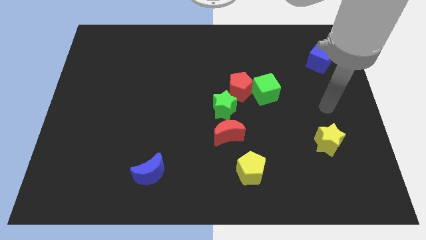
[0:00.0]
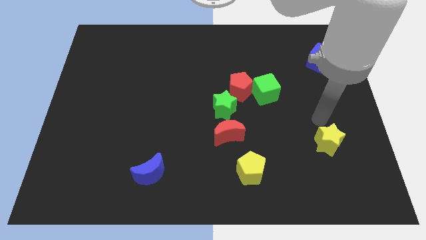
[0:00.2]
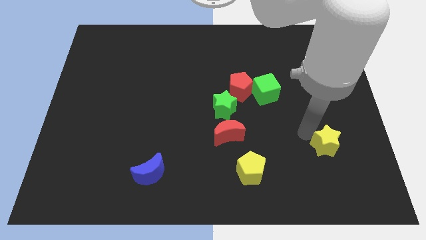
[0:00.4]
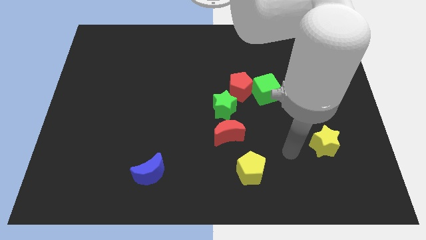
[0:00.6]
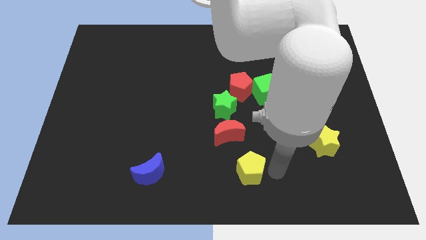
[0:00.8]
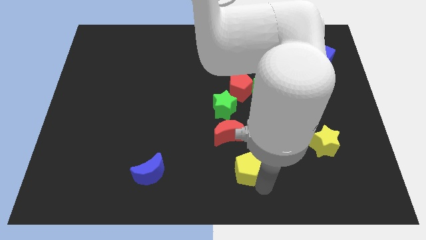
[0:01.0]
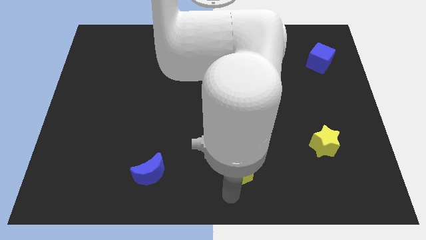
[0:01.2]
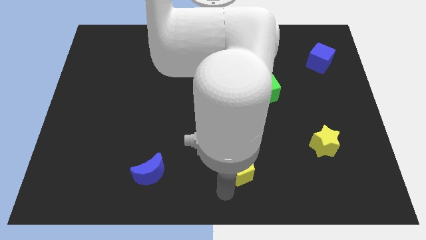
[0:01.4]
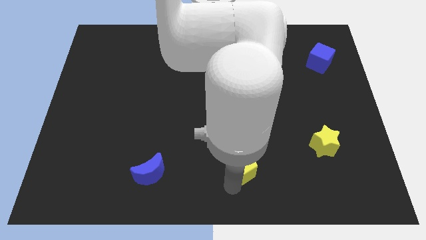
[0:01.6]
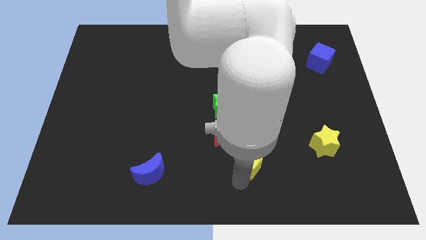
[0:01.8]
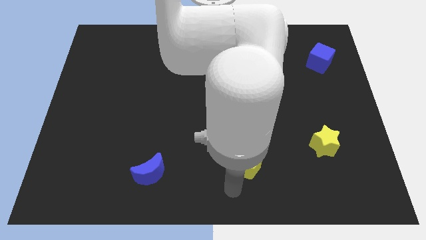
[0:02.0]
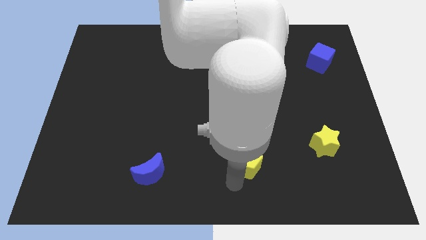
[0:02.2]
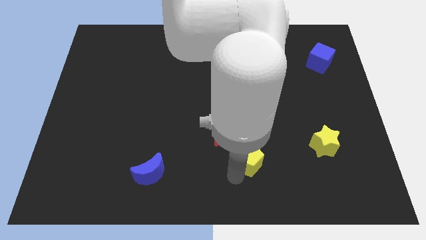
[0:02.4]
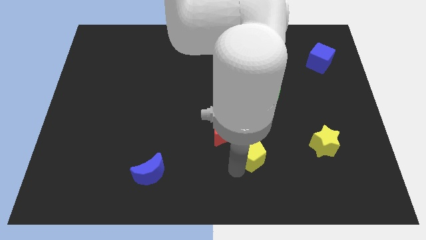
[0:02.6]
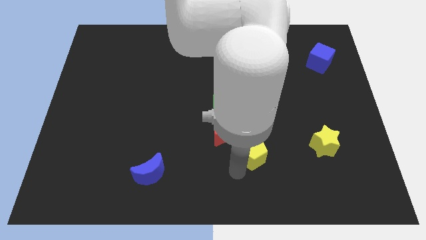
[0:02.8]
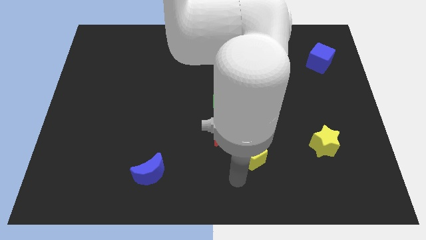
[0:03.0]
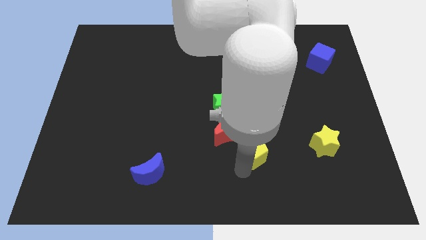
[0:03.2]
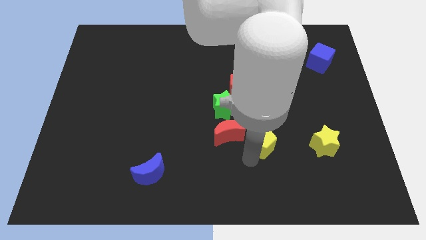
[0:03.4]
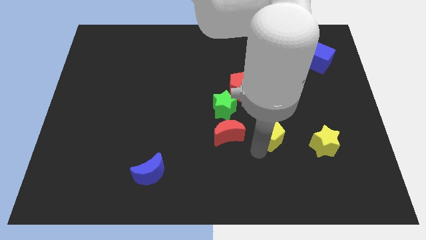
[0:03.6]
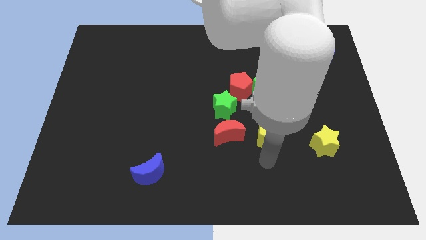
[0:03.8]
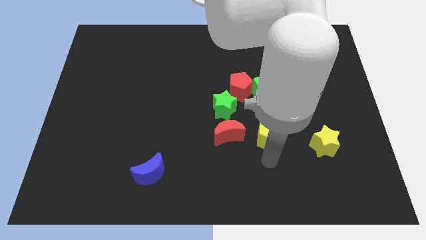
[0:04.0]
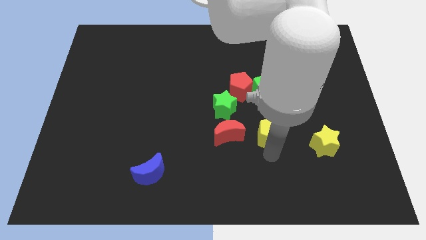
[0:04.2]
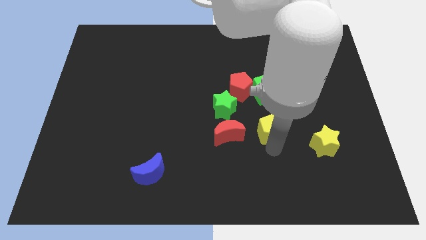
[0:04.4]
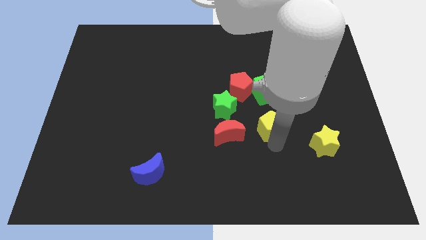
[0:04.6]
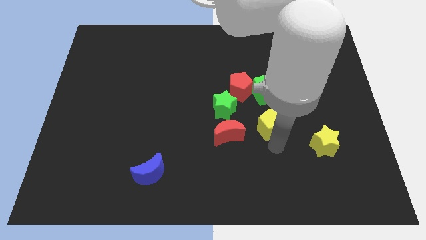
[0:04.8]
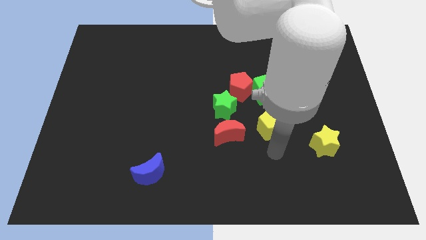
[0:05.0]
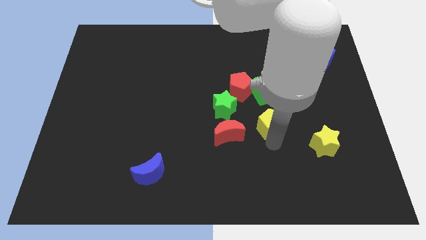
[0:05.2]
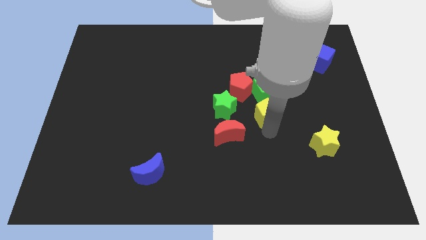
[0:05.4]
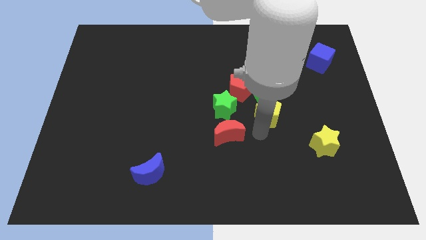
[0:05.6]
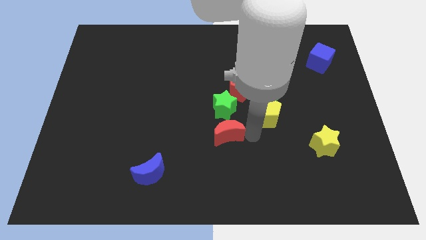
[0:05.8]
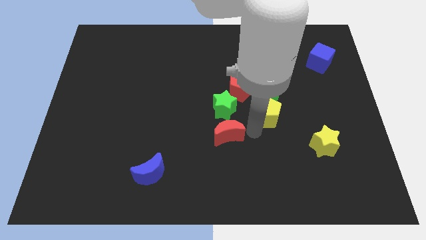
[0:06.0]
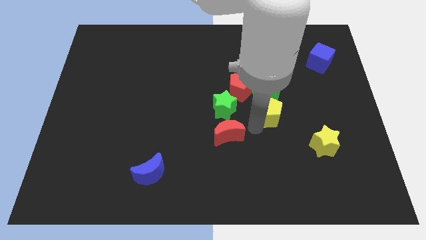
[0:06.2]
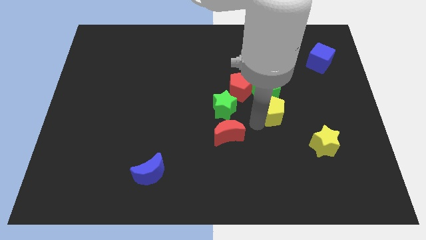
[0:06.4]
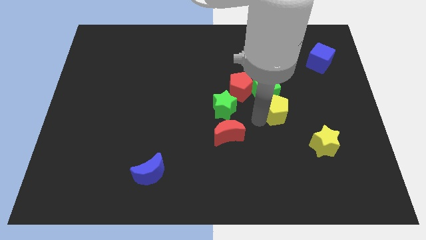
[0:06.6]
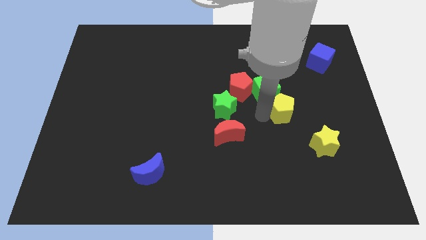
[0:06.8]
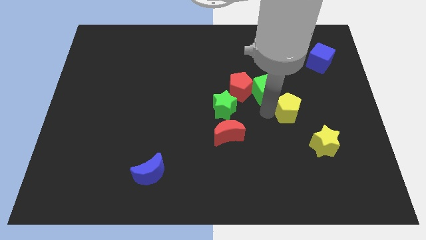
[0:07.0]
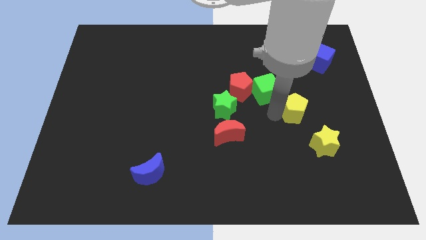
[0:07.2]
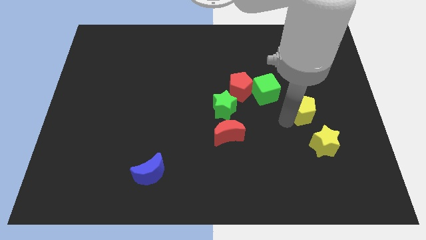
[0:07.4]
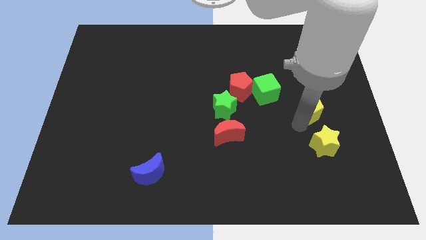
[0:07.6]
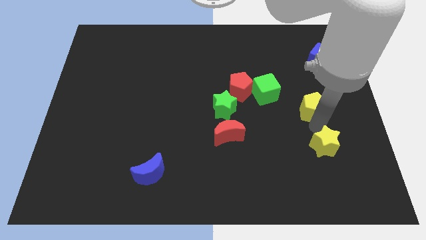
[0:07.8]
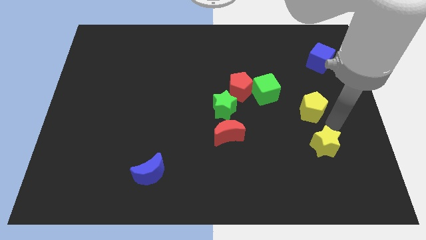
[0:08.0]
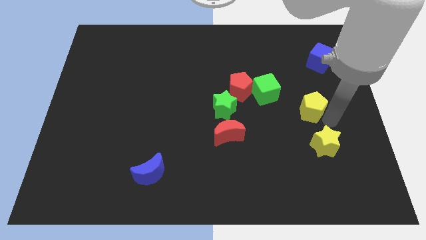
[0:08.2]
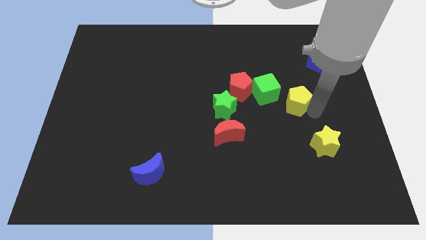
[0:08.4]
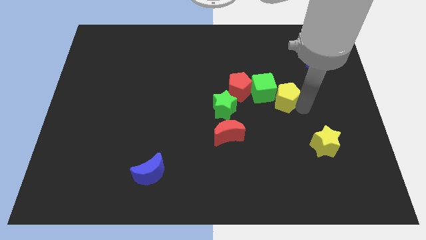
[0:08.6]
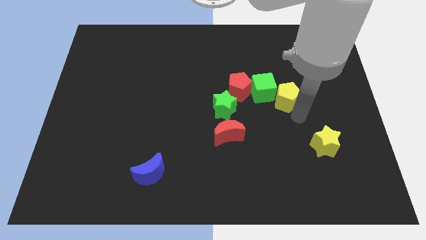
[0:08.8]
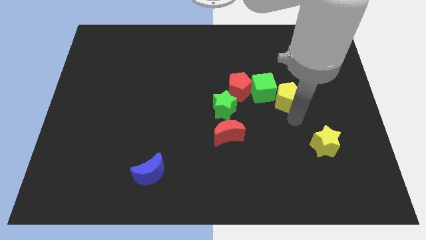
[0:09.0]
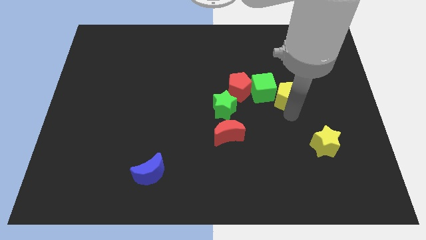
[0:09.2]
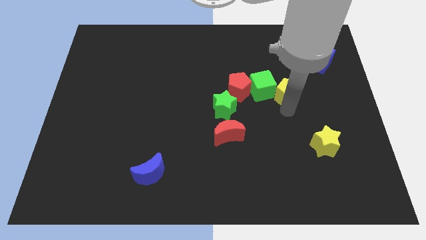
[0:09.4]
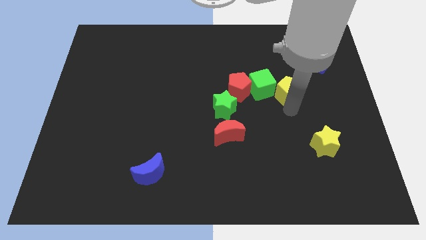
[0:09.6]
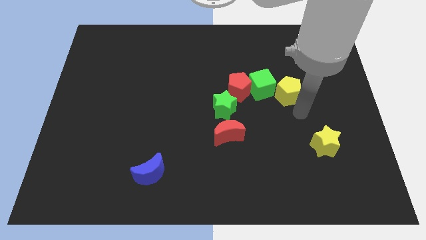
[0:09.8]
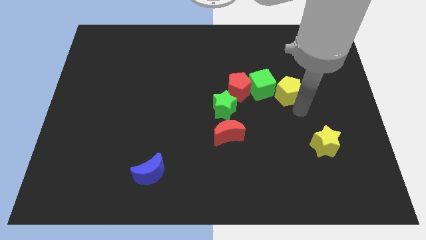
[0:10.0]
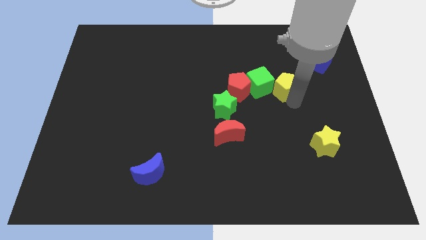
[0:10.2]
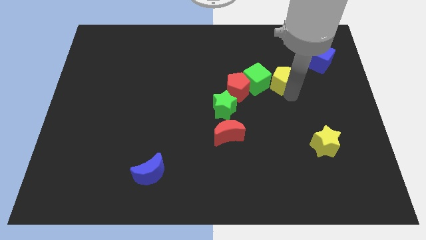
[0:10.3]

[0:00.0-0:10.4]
move the yellow pentagon up

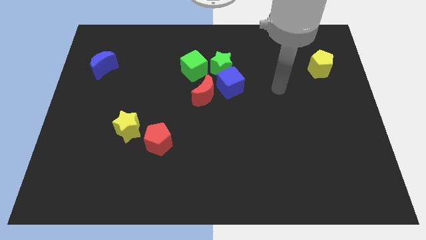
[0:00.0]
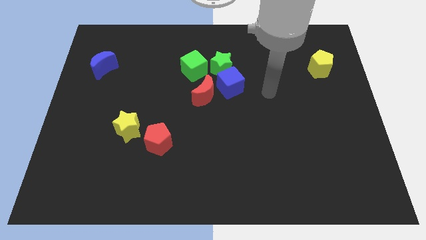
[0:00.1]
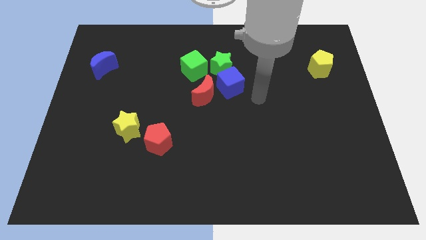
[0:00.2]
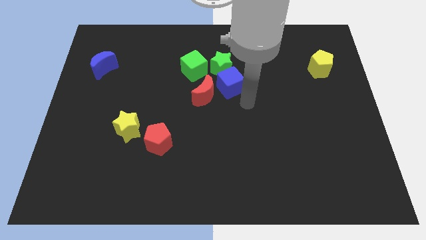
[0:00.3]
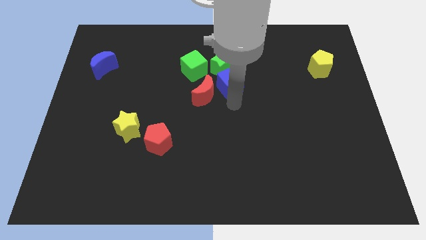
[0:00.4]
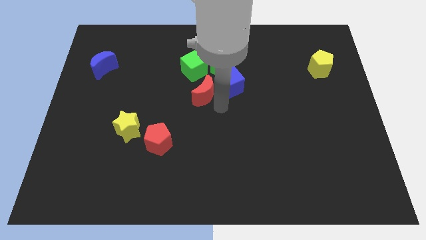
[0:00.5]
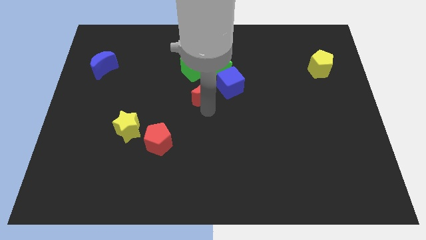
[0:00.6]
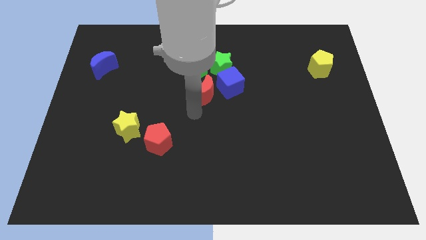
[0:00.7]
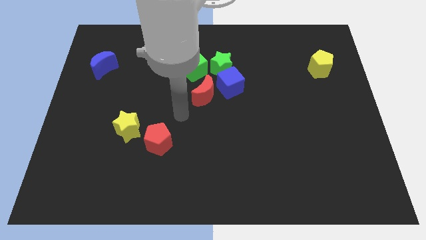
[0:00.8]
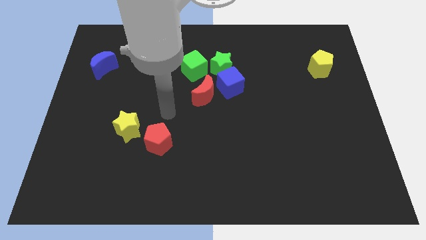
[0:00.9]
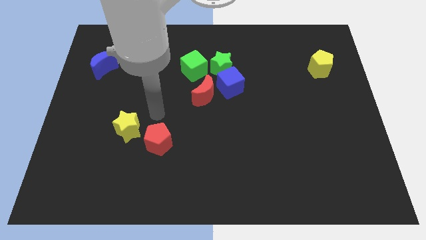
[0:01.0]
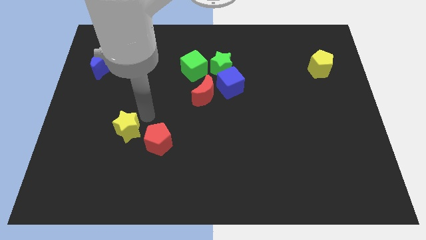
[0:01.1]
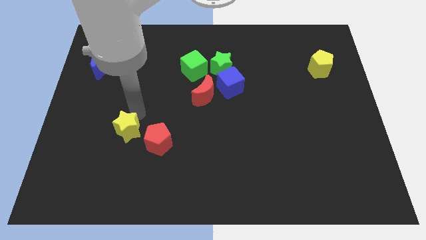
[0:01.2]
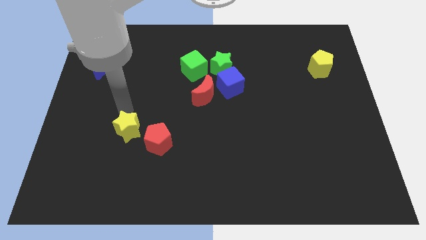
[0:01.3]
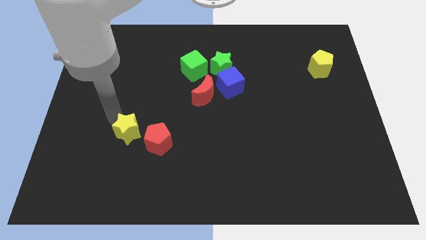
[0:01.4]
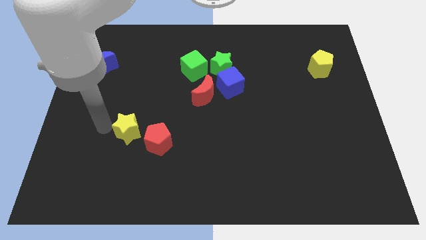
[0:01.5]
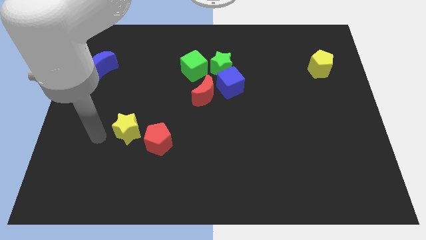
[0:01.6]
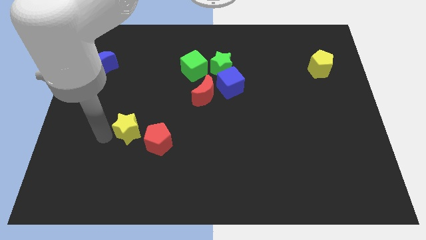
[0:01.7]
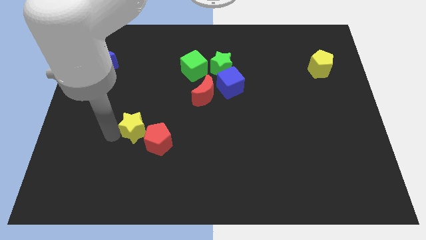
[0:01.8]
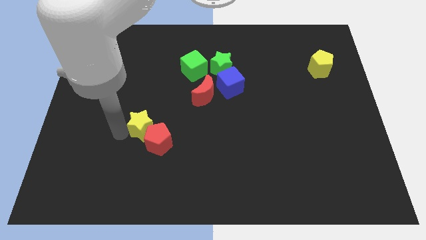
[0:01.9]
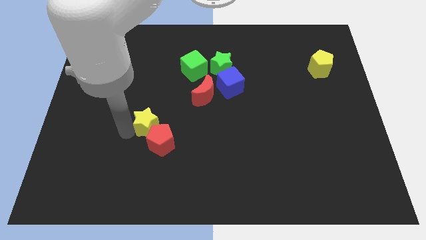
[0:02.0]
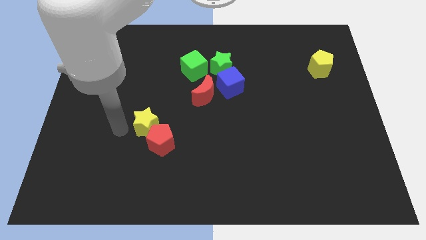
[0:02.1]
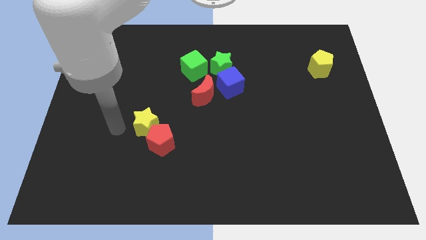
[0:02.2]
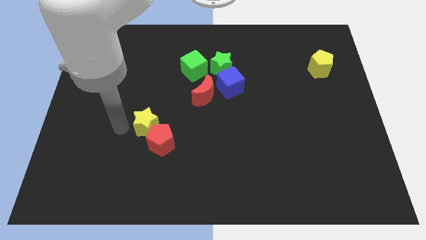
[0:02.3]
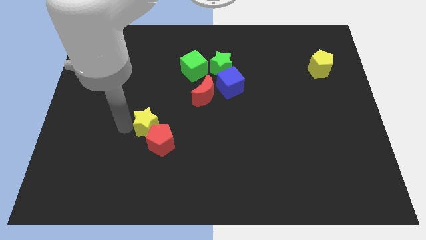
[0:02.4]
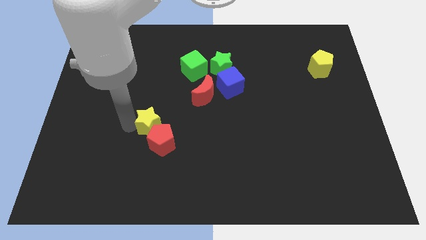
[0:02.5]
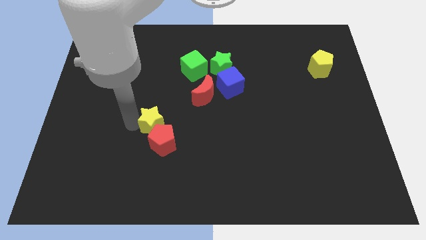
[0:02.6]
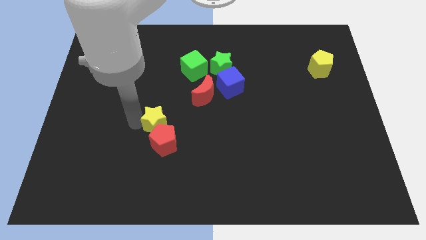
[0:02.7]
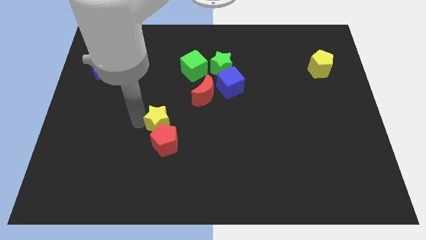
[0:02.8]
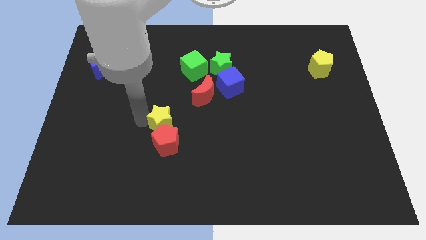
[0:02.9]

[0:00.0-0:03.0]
slightly move the yellow star to the right
